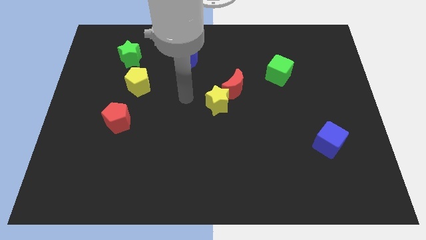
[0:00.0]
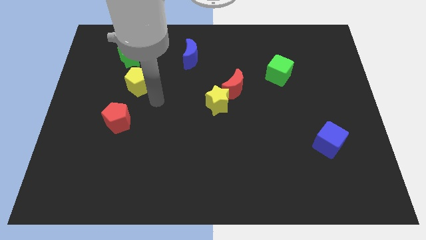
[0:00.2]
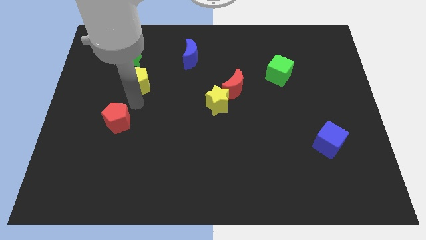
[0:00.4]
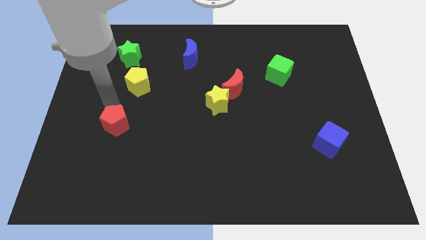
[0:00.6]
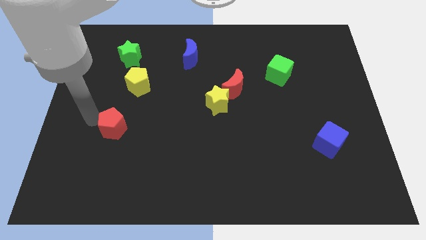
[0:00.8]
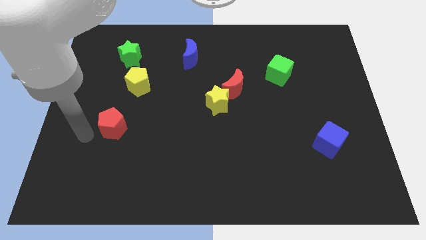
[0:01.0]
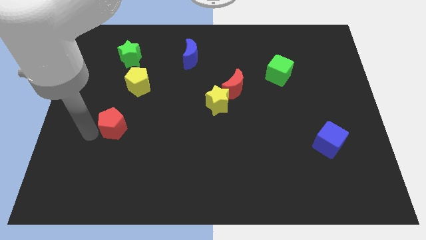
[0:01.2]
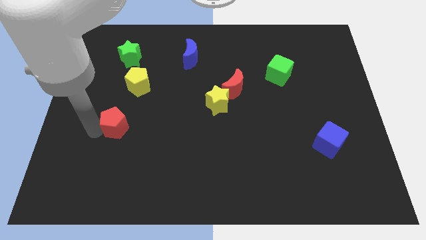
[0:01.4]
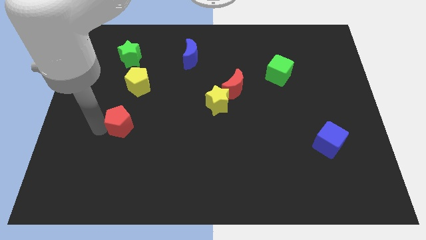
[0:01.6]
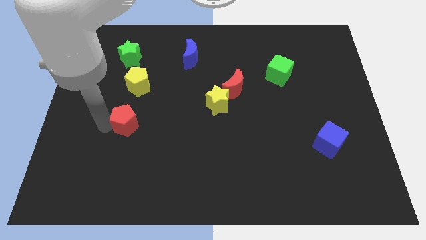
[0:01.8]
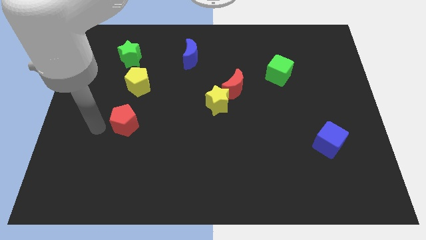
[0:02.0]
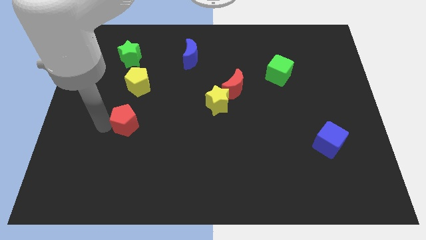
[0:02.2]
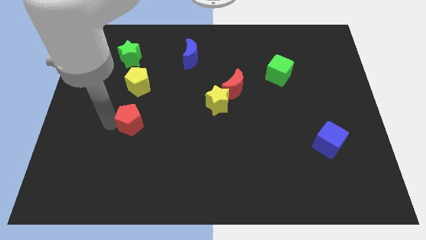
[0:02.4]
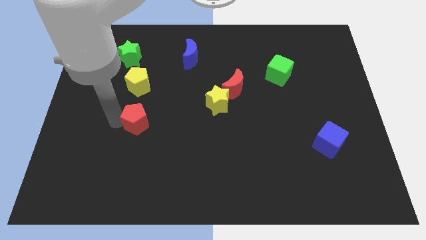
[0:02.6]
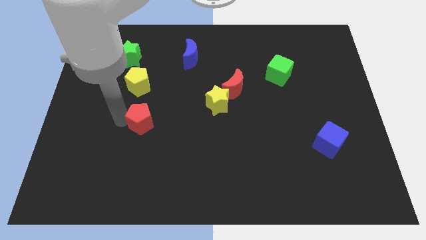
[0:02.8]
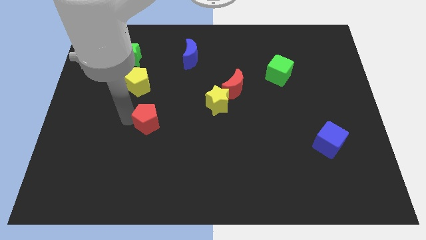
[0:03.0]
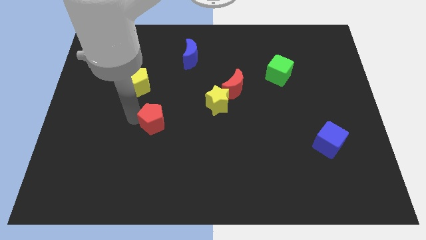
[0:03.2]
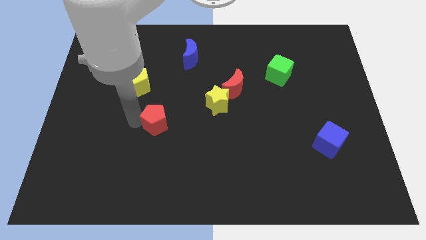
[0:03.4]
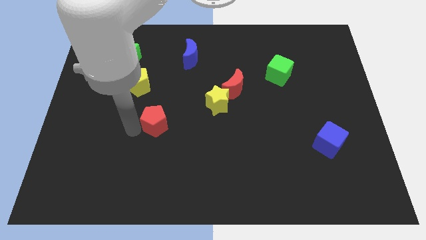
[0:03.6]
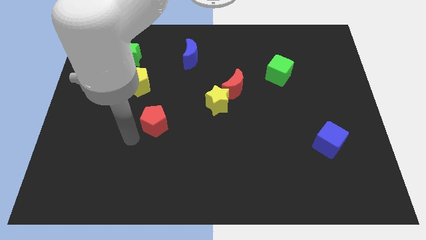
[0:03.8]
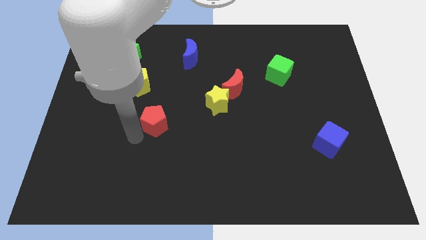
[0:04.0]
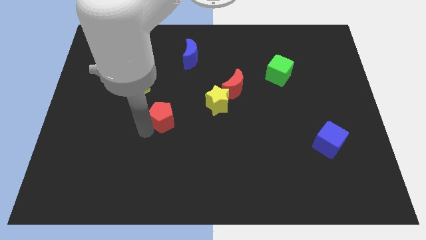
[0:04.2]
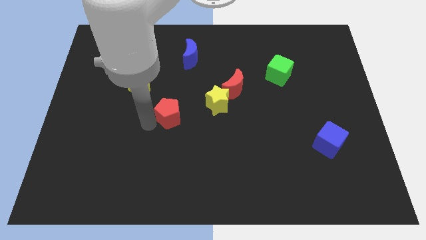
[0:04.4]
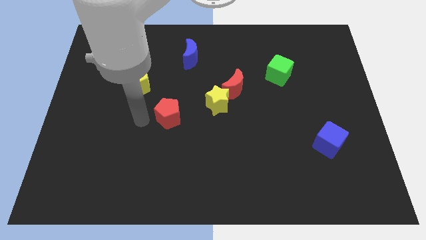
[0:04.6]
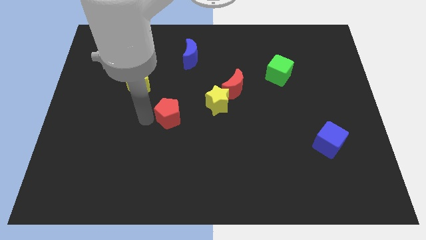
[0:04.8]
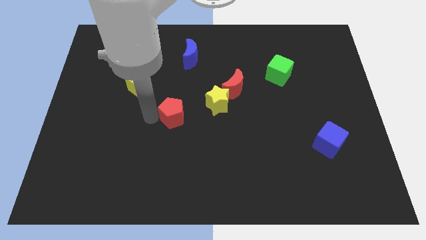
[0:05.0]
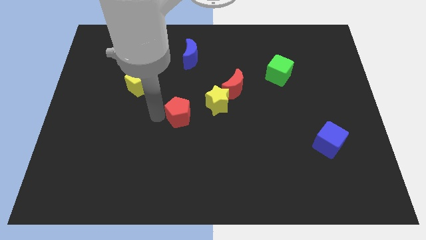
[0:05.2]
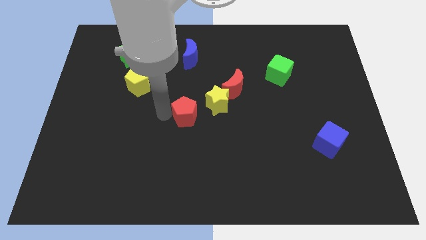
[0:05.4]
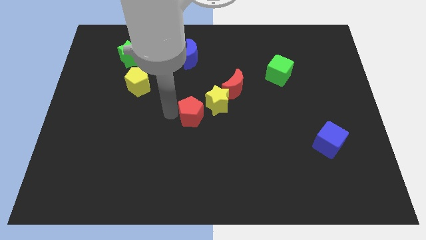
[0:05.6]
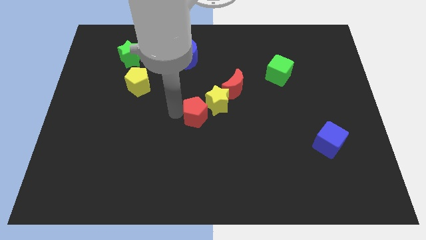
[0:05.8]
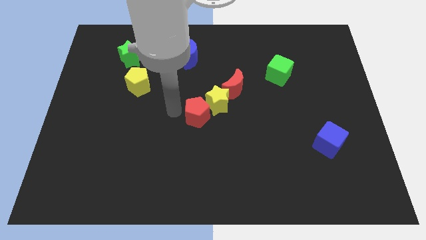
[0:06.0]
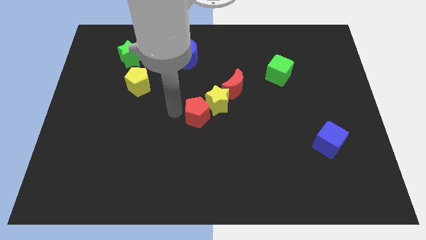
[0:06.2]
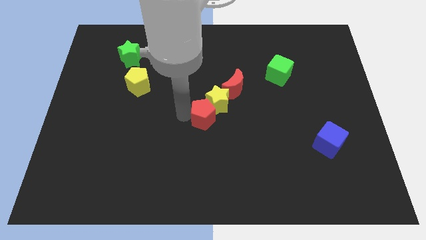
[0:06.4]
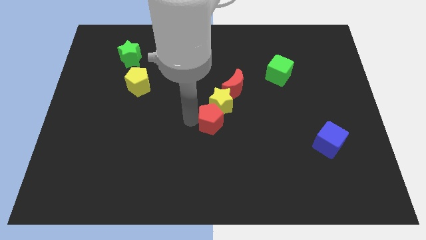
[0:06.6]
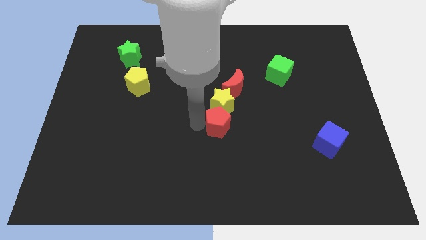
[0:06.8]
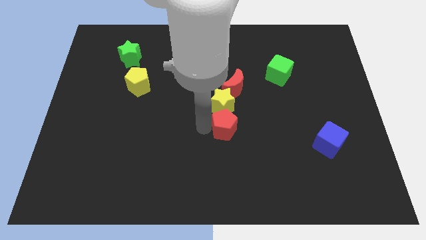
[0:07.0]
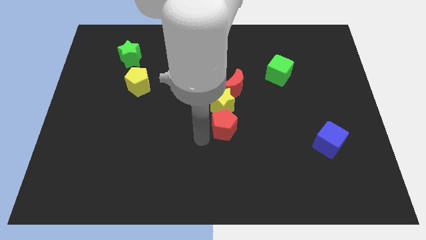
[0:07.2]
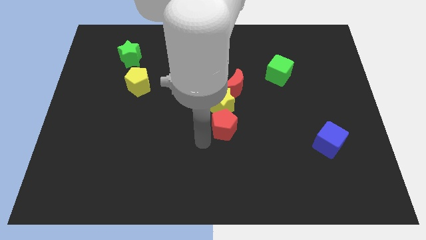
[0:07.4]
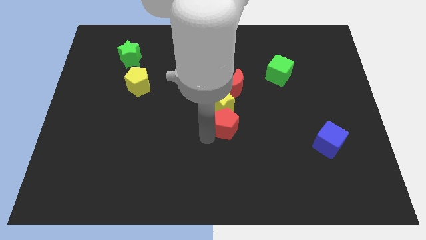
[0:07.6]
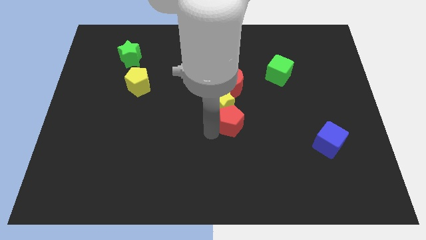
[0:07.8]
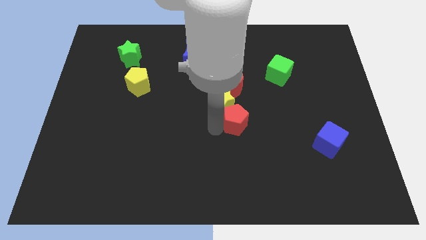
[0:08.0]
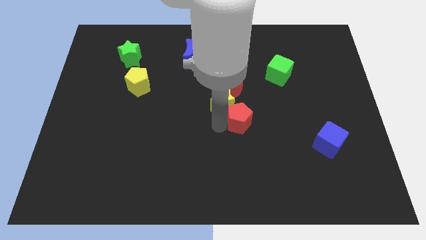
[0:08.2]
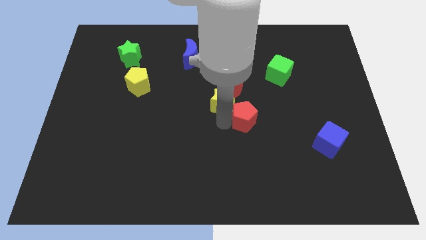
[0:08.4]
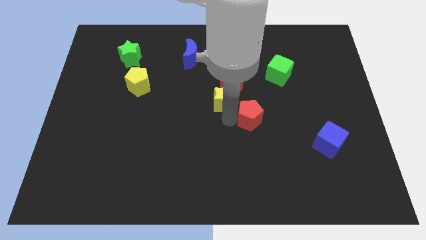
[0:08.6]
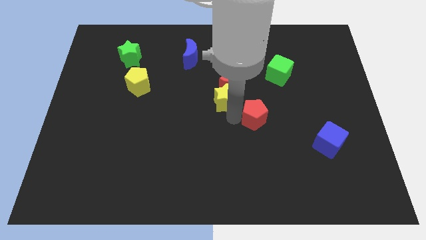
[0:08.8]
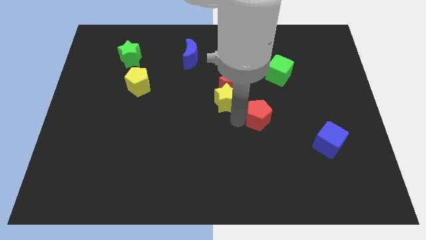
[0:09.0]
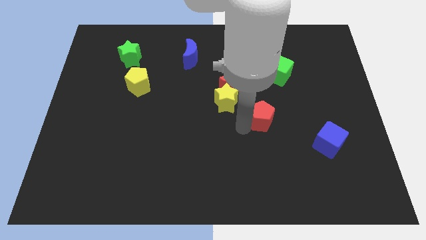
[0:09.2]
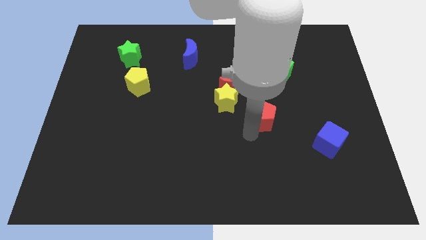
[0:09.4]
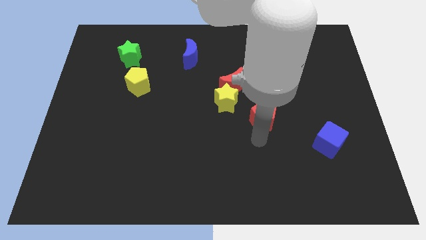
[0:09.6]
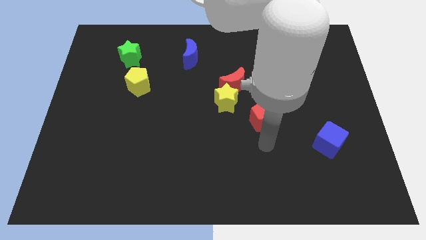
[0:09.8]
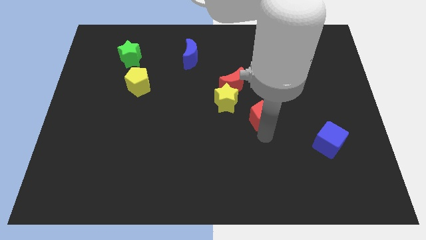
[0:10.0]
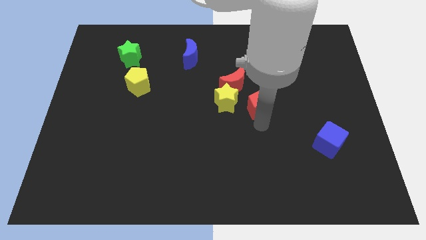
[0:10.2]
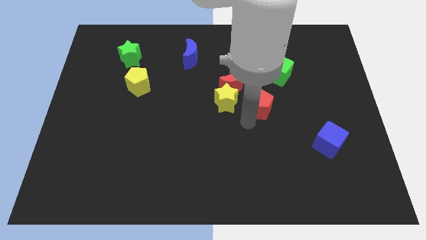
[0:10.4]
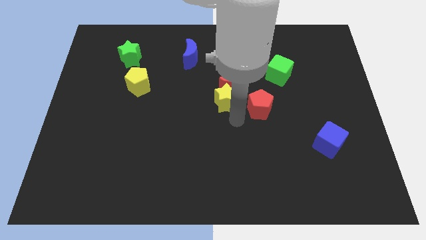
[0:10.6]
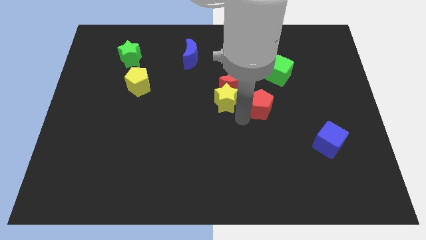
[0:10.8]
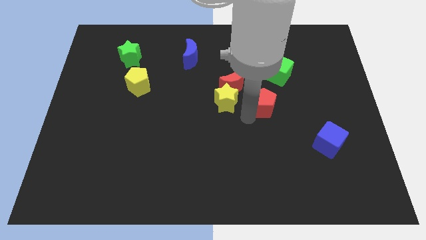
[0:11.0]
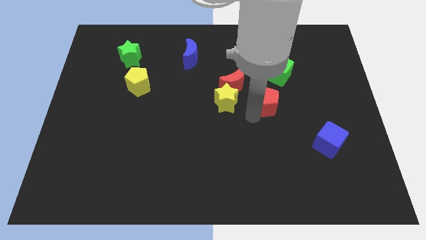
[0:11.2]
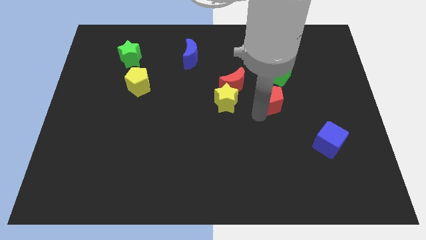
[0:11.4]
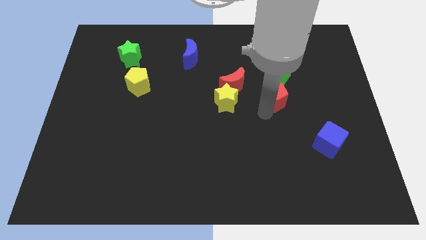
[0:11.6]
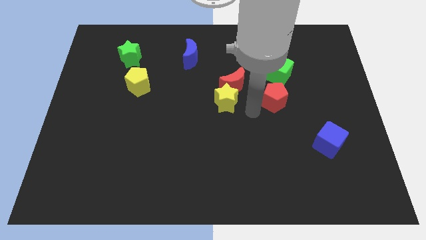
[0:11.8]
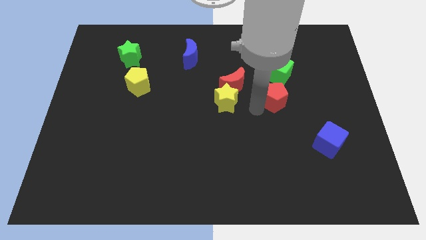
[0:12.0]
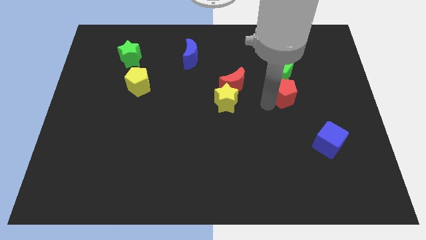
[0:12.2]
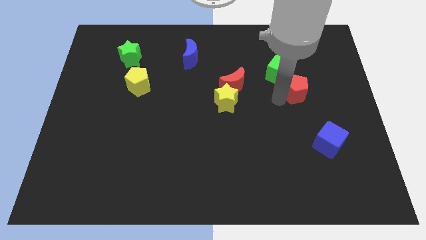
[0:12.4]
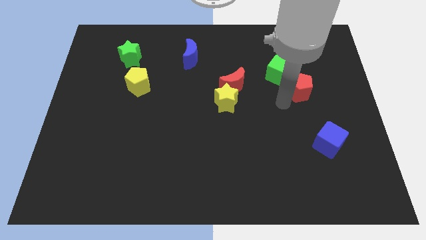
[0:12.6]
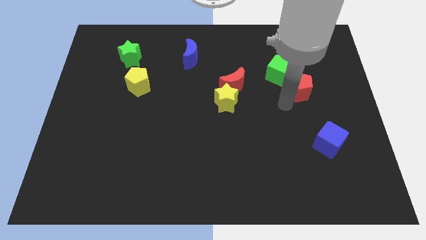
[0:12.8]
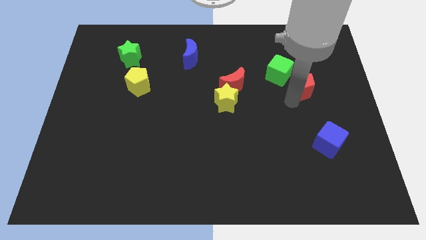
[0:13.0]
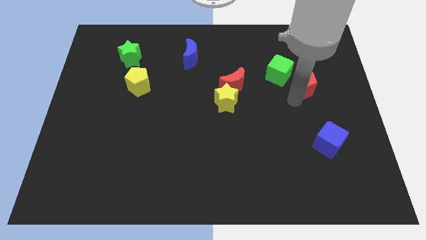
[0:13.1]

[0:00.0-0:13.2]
slide the red pentagon right of the green cube

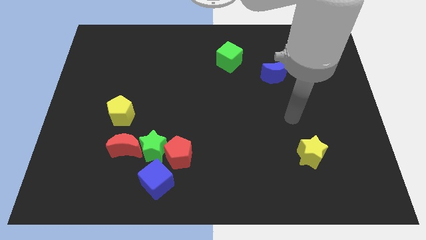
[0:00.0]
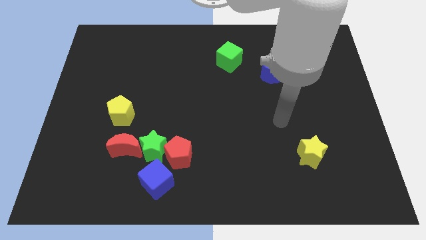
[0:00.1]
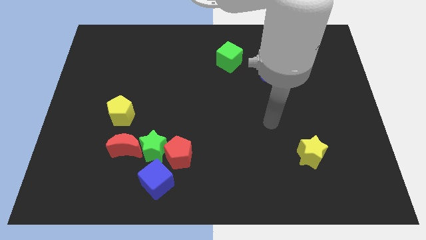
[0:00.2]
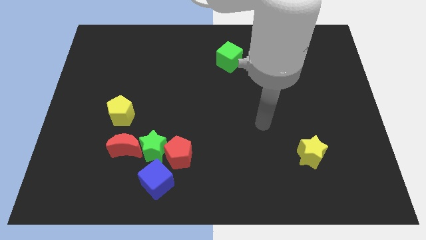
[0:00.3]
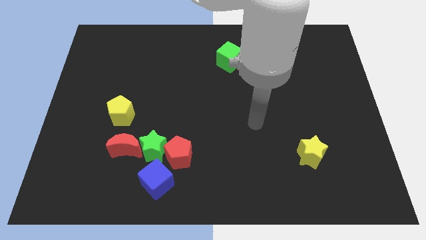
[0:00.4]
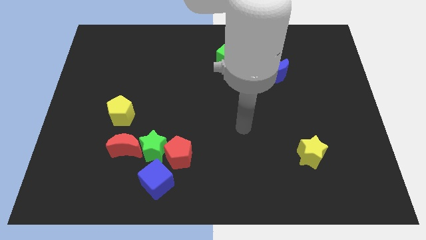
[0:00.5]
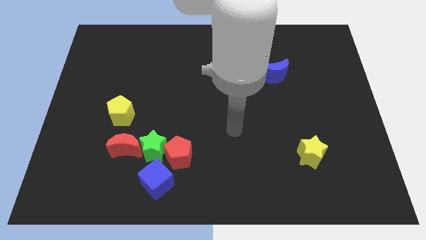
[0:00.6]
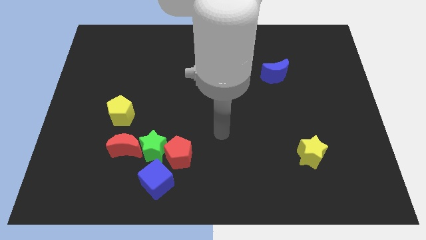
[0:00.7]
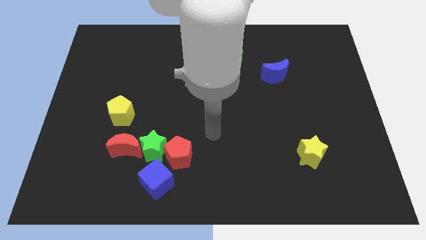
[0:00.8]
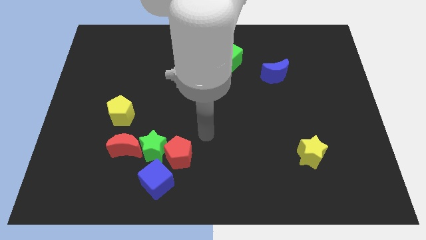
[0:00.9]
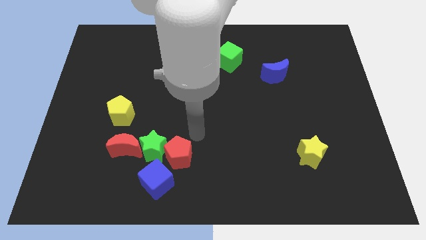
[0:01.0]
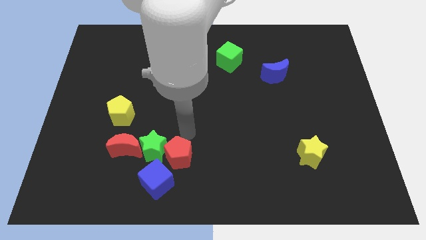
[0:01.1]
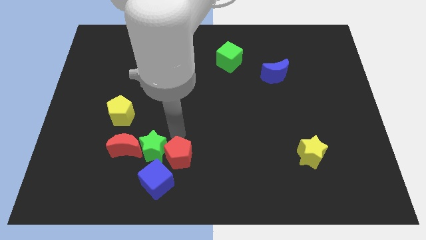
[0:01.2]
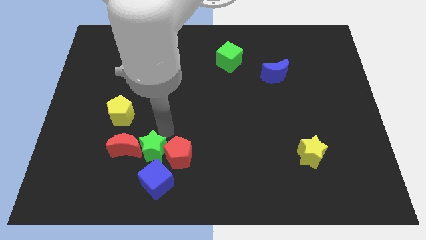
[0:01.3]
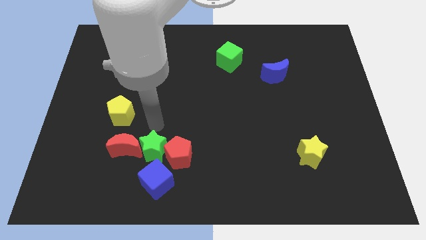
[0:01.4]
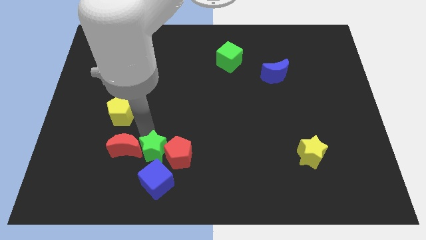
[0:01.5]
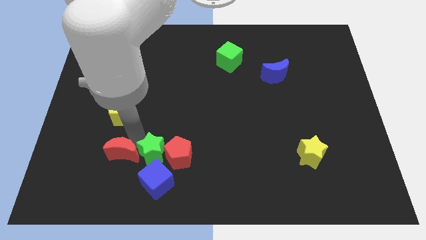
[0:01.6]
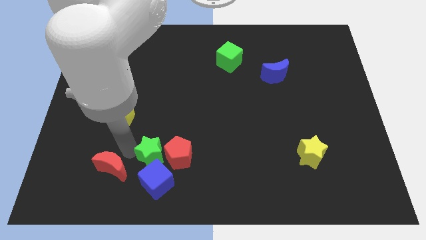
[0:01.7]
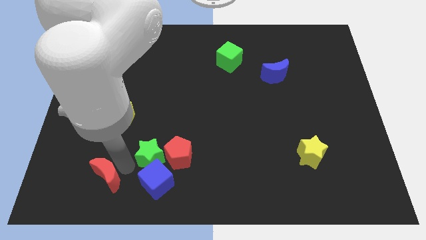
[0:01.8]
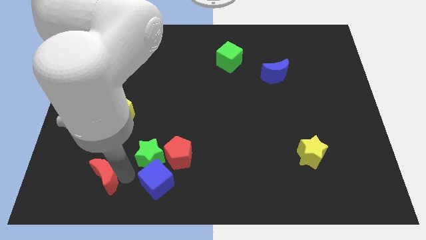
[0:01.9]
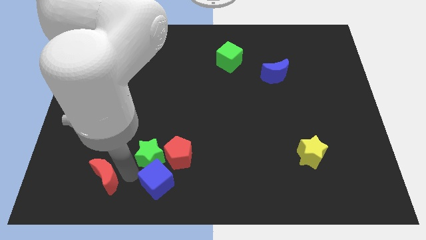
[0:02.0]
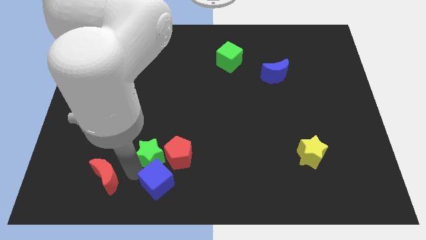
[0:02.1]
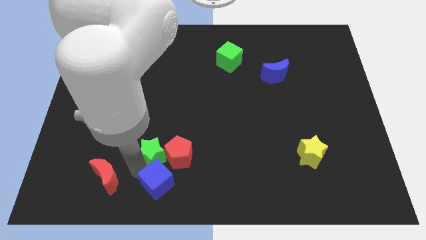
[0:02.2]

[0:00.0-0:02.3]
put the green star diagonally up and to the right of the blue cube
